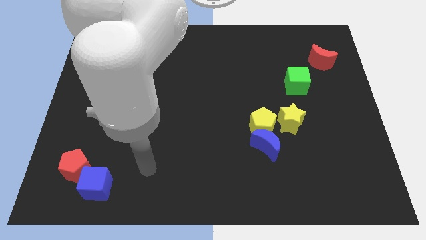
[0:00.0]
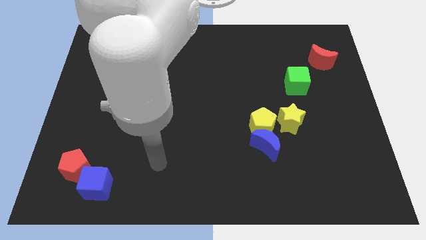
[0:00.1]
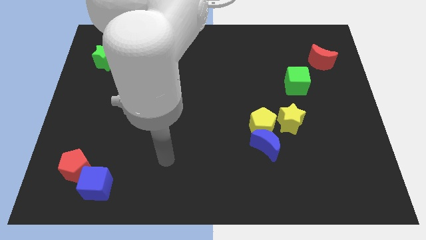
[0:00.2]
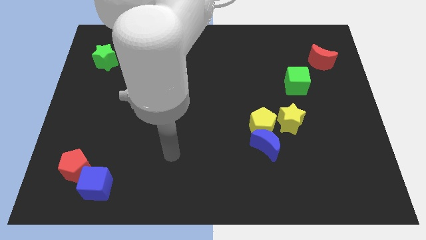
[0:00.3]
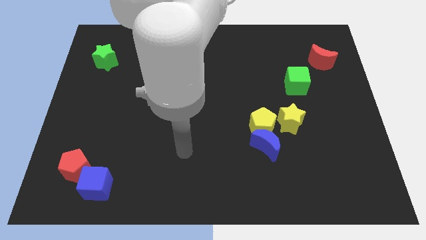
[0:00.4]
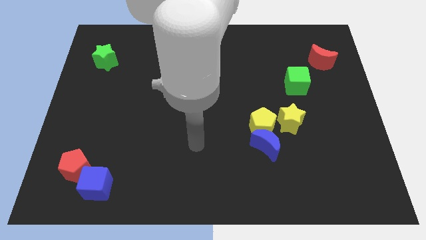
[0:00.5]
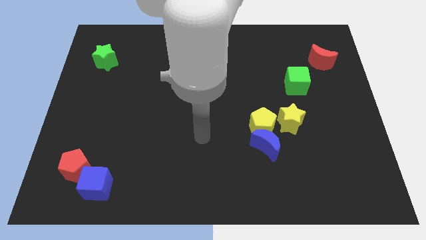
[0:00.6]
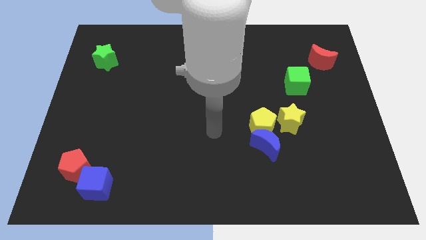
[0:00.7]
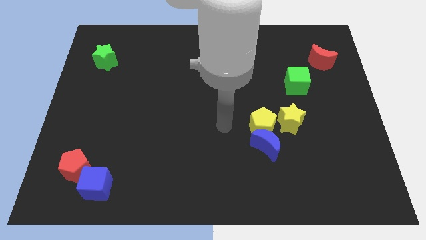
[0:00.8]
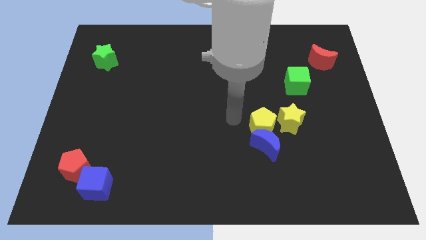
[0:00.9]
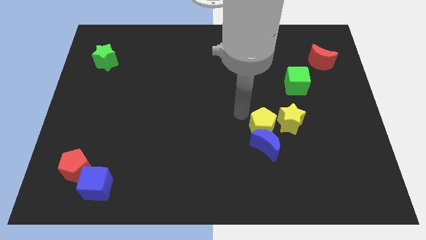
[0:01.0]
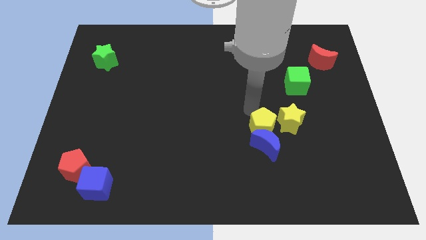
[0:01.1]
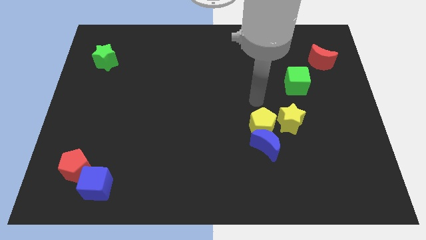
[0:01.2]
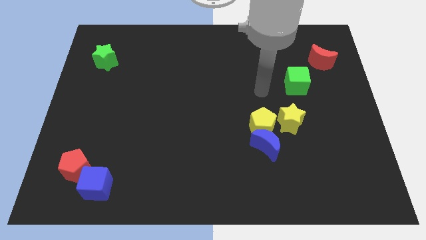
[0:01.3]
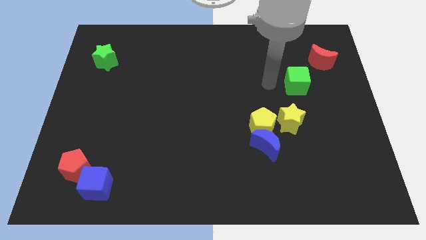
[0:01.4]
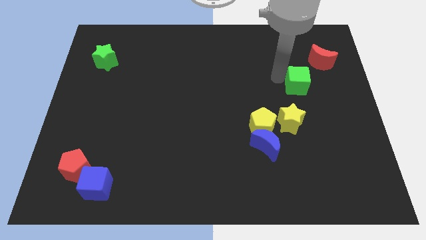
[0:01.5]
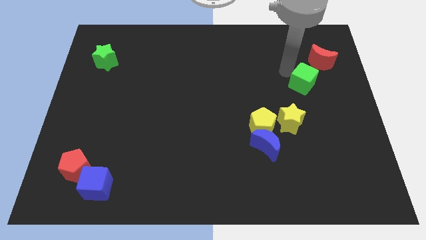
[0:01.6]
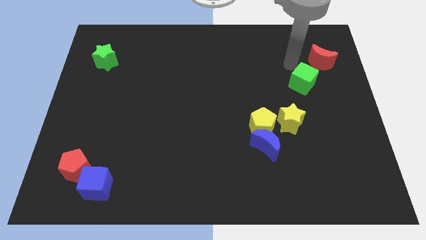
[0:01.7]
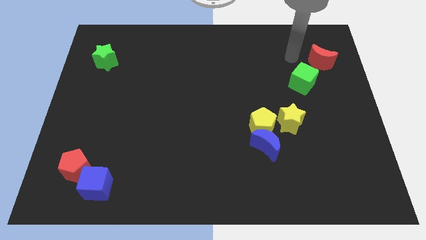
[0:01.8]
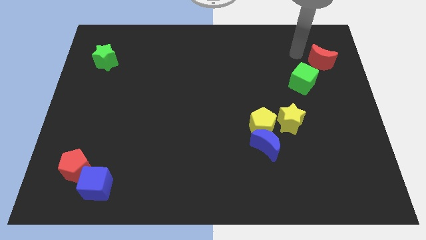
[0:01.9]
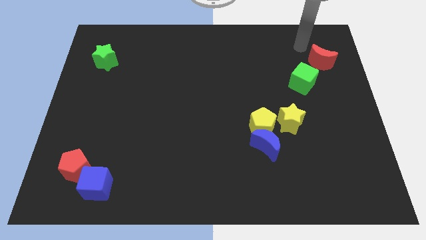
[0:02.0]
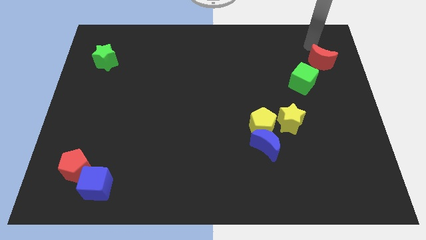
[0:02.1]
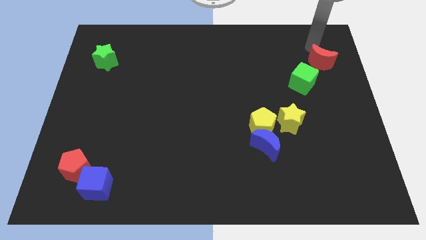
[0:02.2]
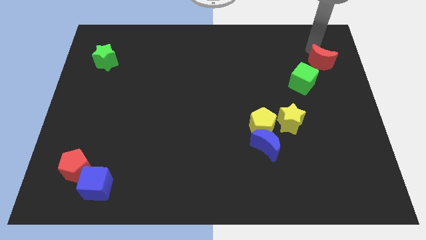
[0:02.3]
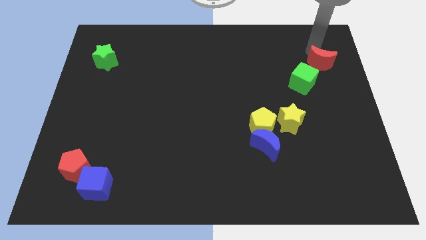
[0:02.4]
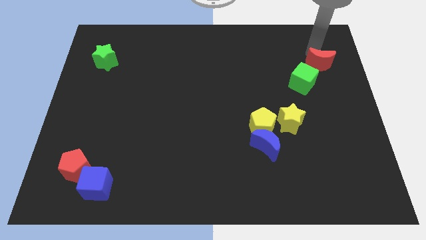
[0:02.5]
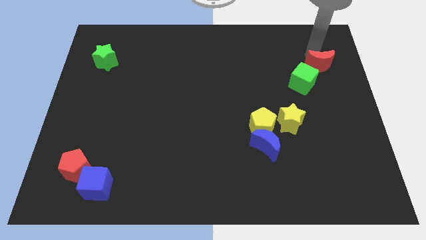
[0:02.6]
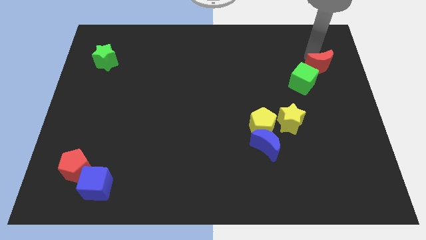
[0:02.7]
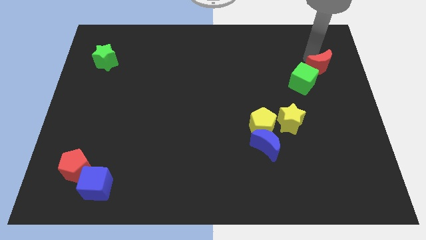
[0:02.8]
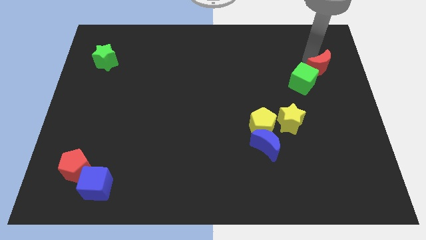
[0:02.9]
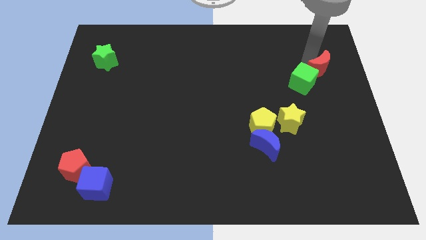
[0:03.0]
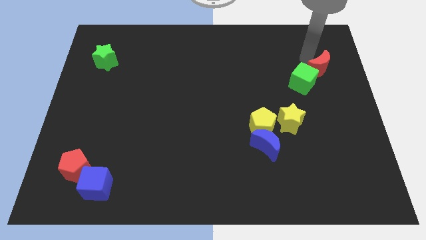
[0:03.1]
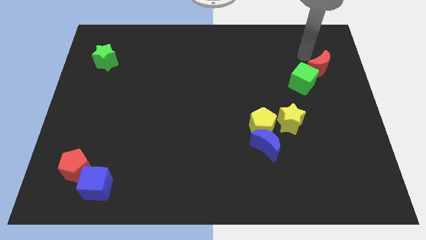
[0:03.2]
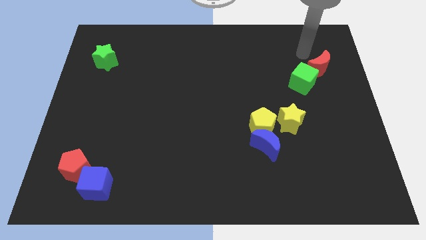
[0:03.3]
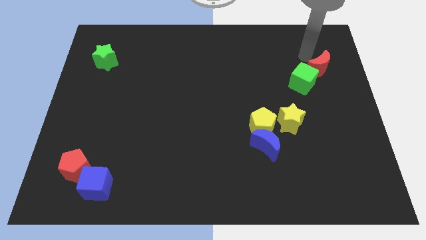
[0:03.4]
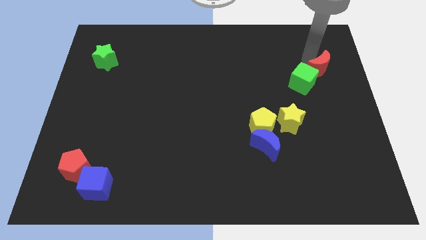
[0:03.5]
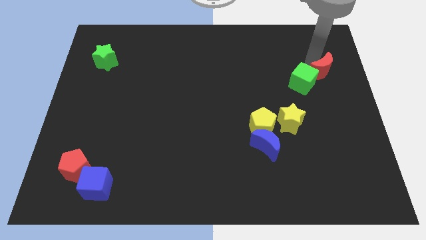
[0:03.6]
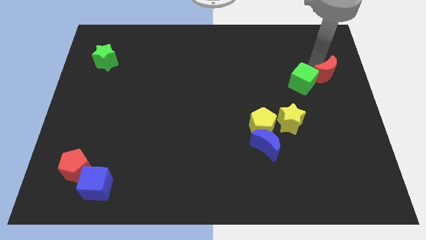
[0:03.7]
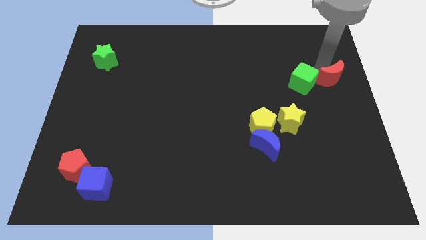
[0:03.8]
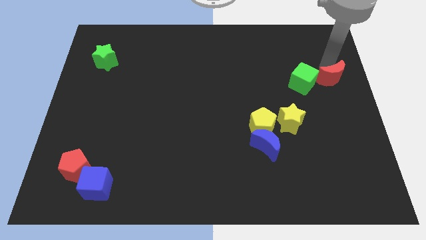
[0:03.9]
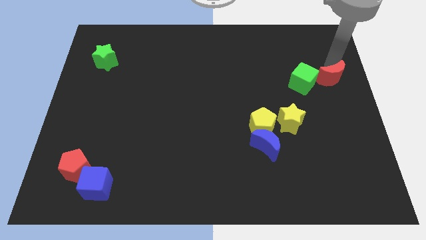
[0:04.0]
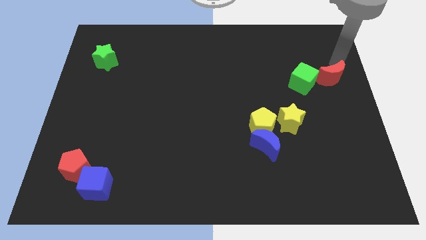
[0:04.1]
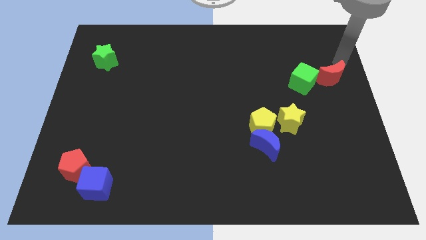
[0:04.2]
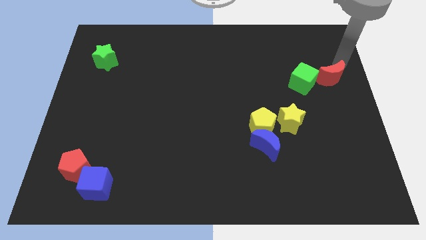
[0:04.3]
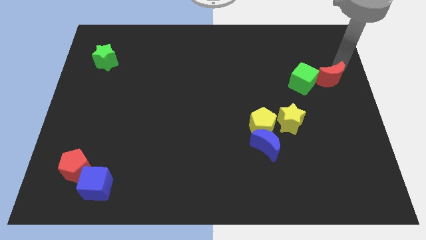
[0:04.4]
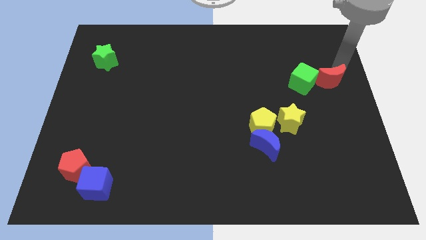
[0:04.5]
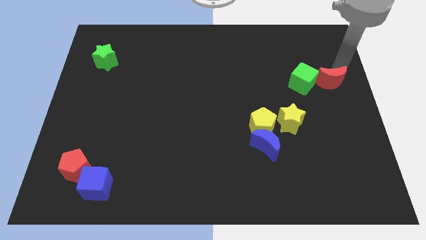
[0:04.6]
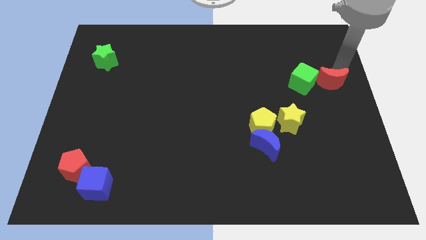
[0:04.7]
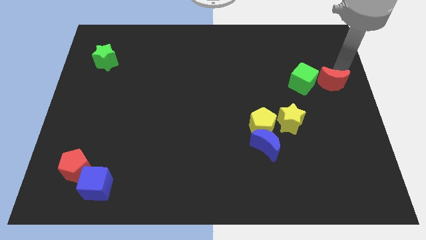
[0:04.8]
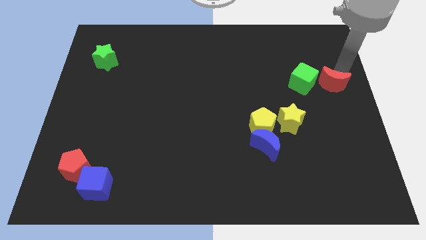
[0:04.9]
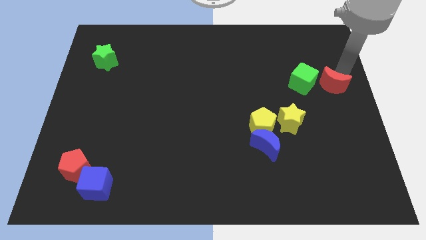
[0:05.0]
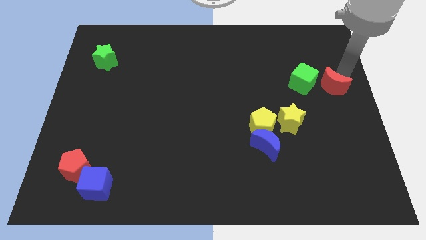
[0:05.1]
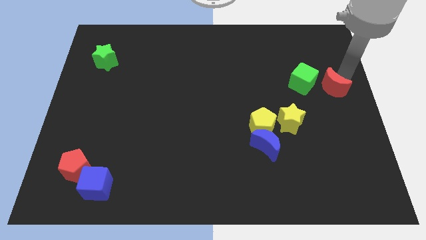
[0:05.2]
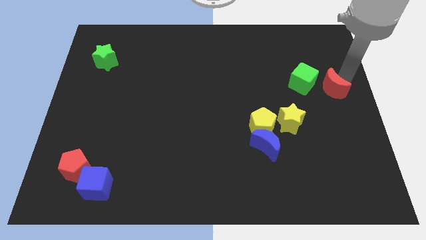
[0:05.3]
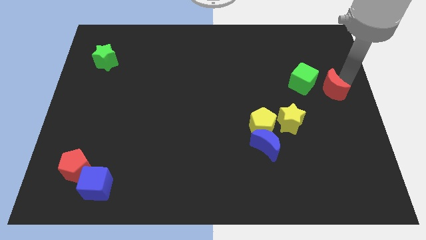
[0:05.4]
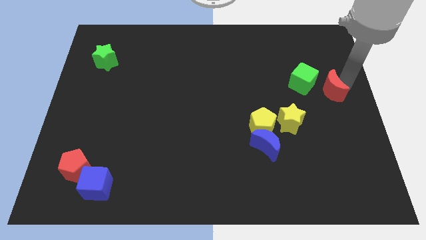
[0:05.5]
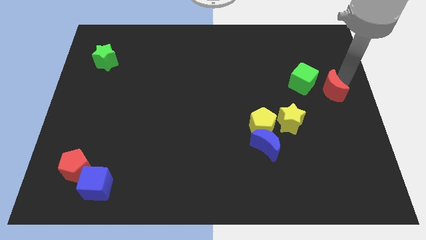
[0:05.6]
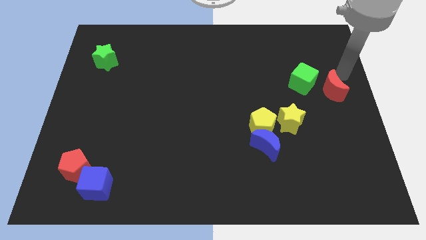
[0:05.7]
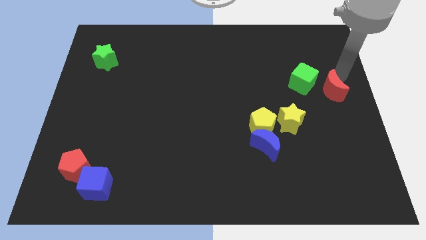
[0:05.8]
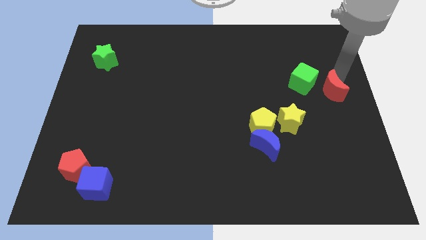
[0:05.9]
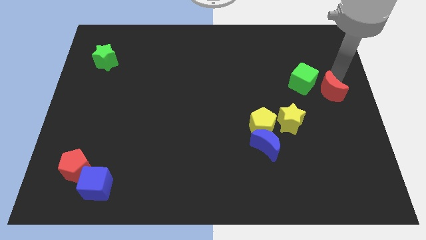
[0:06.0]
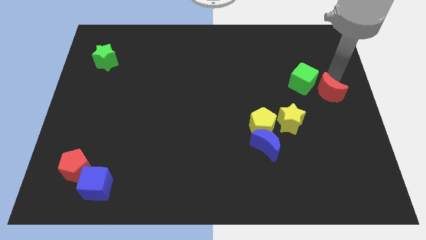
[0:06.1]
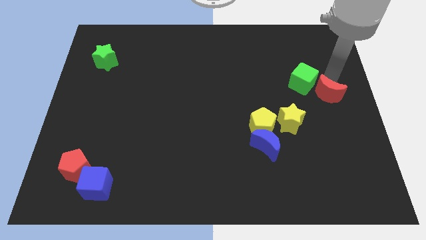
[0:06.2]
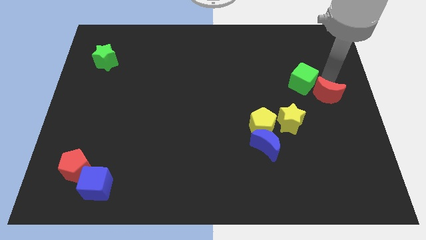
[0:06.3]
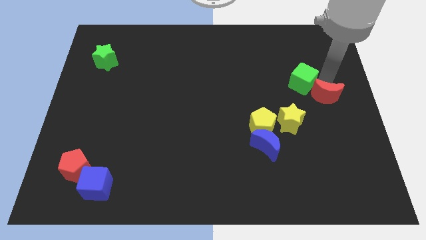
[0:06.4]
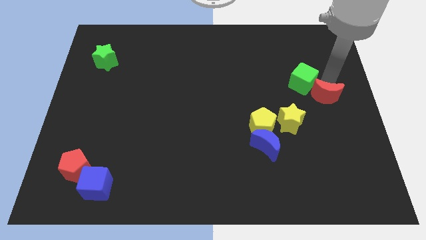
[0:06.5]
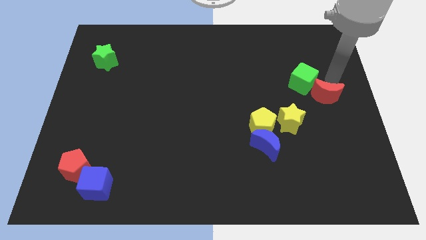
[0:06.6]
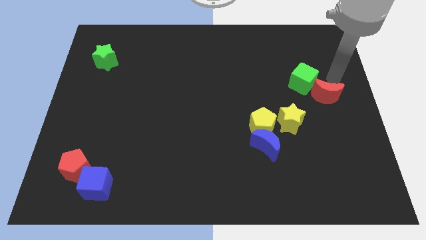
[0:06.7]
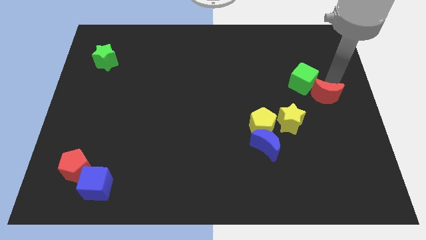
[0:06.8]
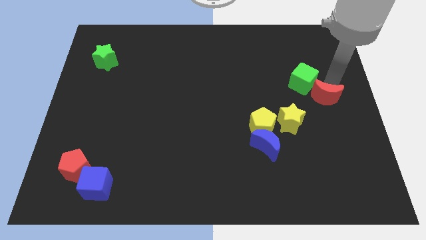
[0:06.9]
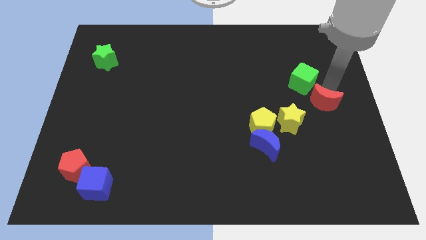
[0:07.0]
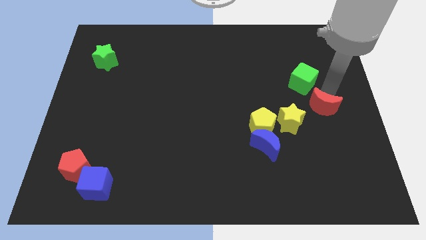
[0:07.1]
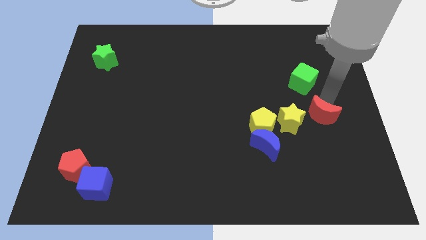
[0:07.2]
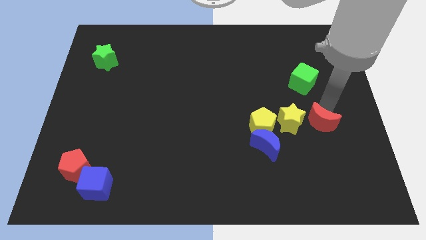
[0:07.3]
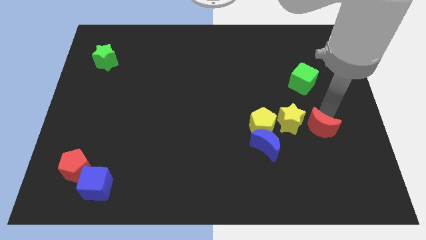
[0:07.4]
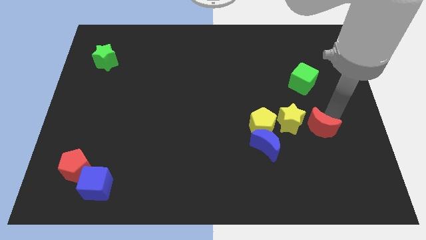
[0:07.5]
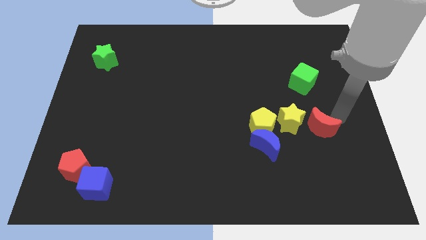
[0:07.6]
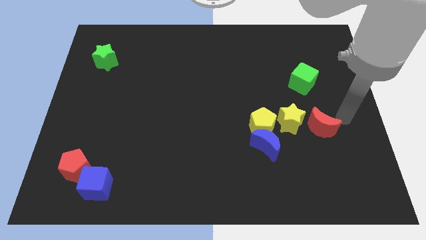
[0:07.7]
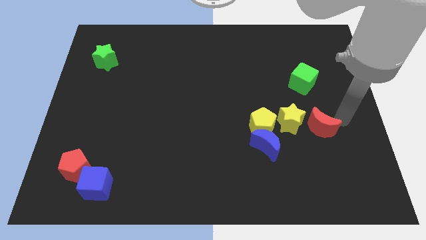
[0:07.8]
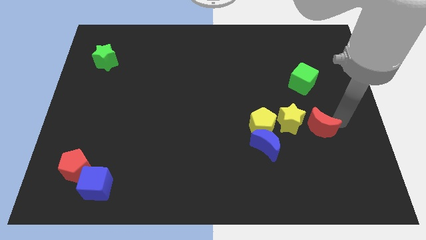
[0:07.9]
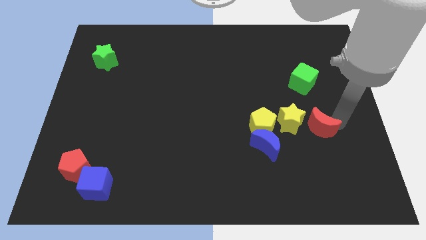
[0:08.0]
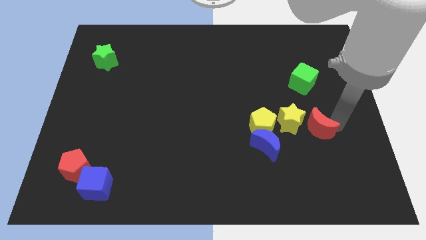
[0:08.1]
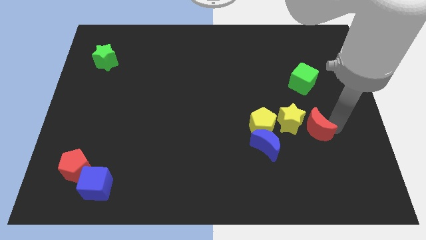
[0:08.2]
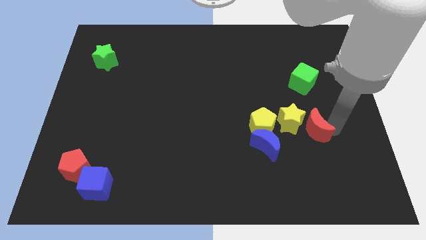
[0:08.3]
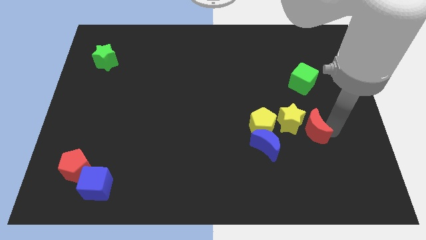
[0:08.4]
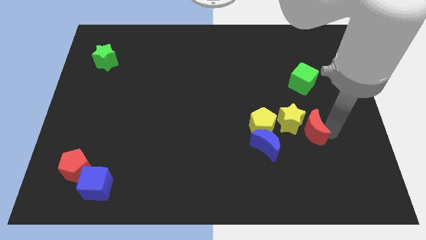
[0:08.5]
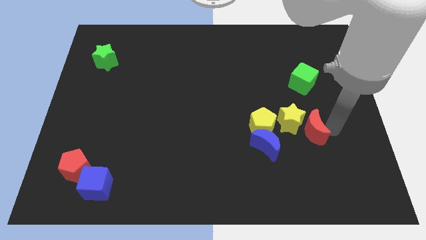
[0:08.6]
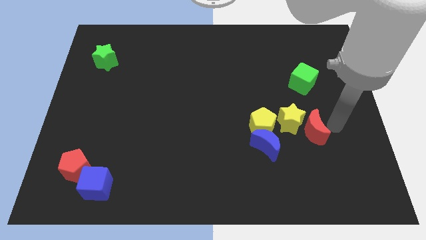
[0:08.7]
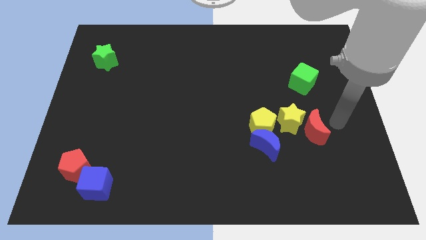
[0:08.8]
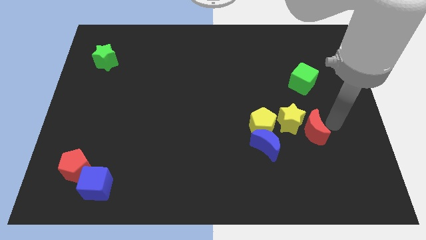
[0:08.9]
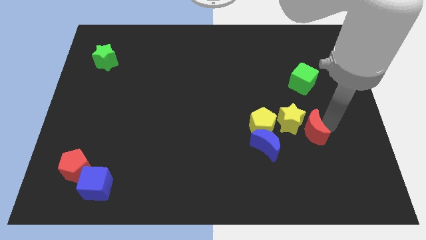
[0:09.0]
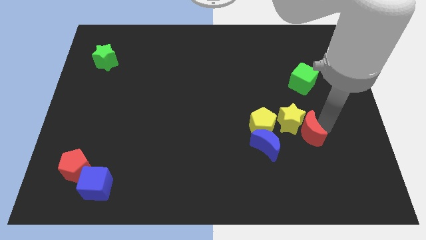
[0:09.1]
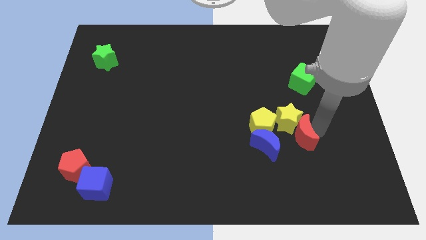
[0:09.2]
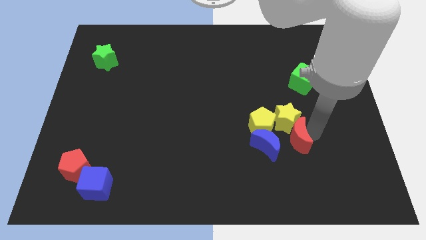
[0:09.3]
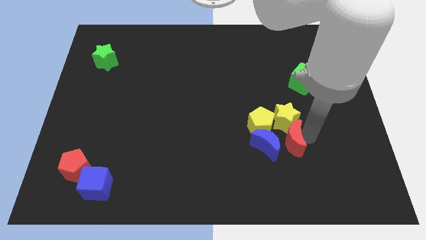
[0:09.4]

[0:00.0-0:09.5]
move the red moon to the blue moon
